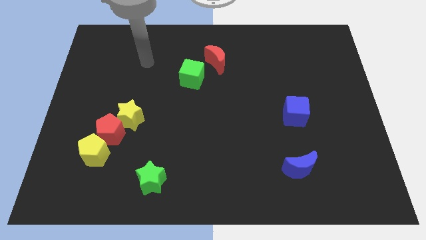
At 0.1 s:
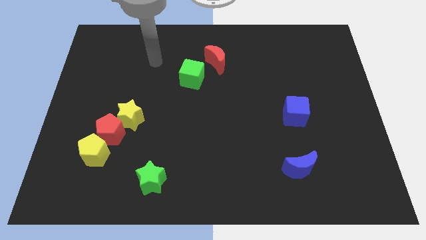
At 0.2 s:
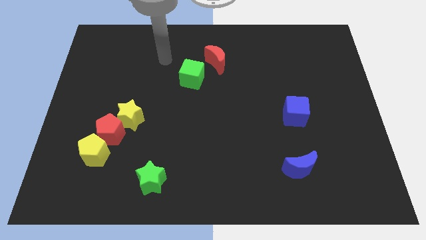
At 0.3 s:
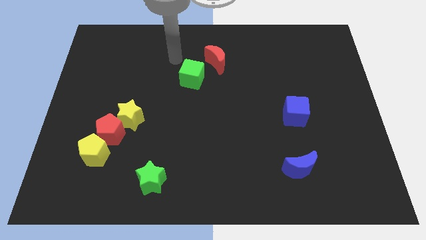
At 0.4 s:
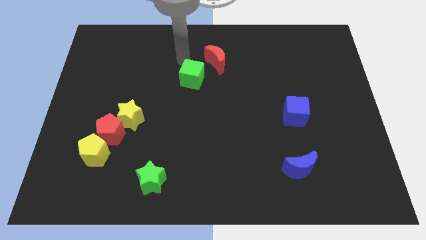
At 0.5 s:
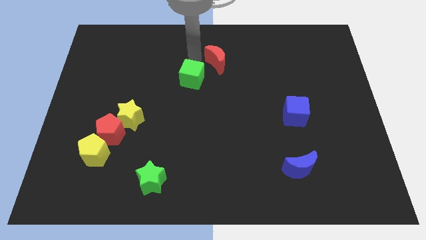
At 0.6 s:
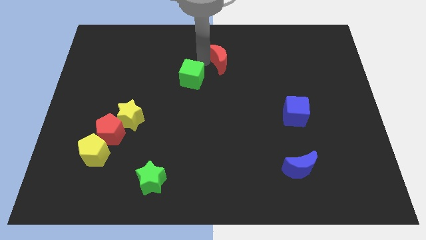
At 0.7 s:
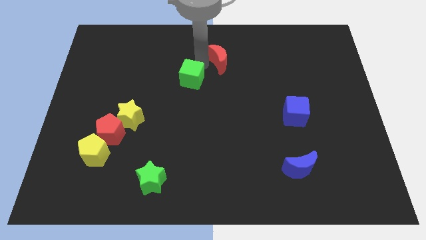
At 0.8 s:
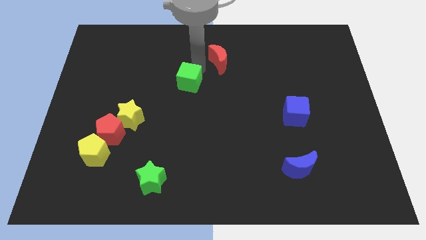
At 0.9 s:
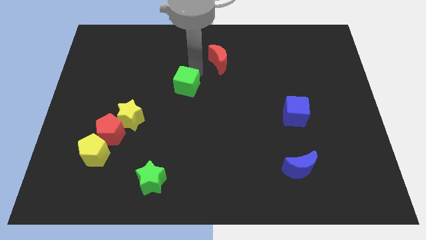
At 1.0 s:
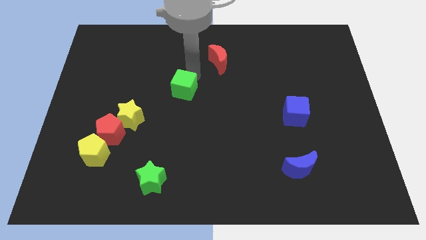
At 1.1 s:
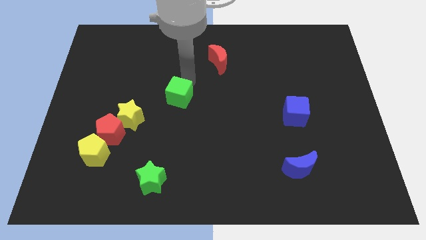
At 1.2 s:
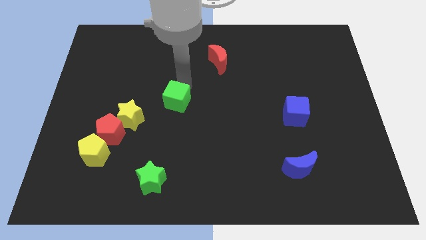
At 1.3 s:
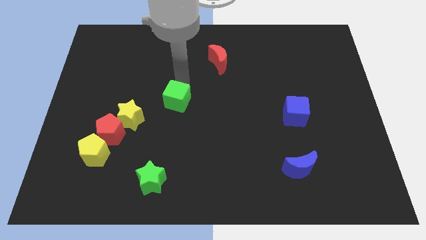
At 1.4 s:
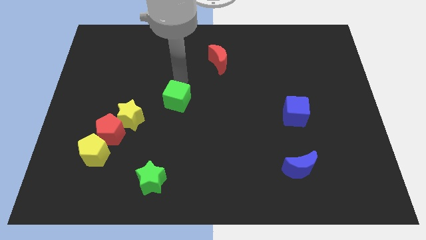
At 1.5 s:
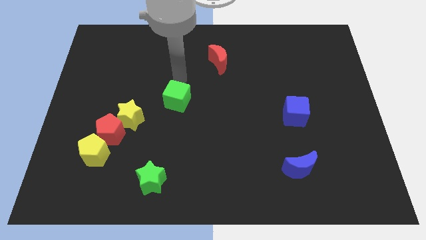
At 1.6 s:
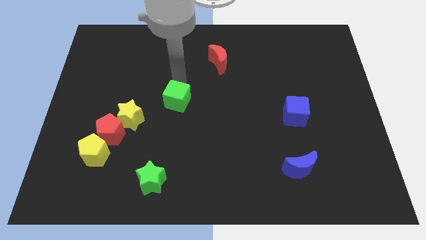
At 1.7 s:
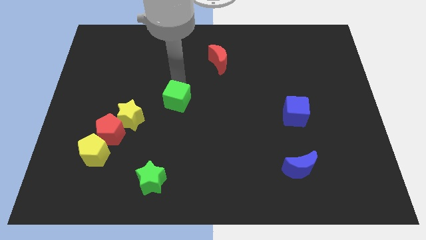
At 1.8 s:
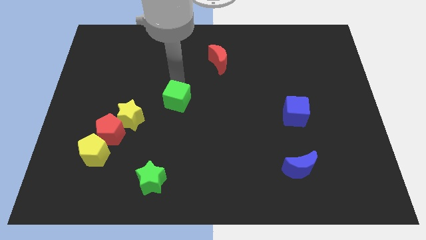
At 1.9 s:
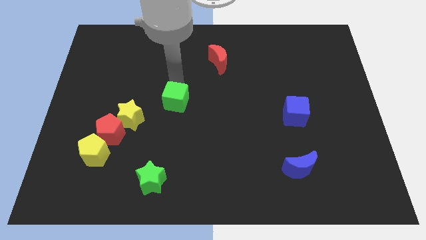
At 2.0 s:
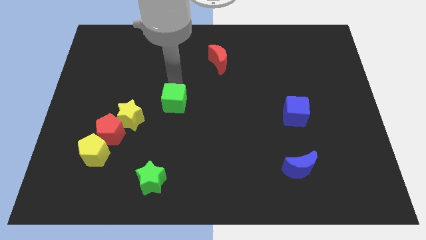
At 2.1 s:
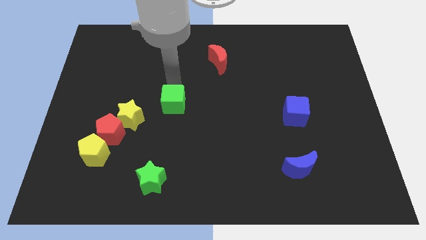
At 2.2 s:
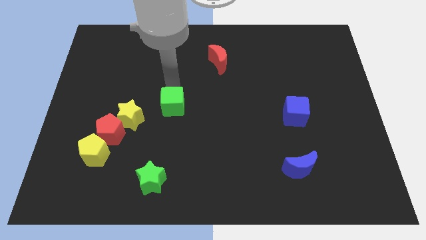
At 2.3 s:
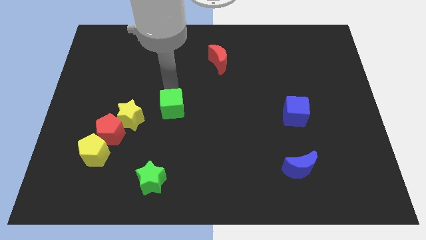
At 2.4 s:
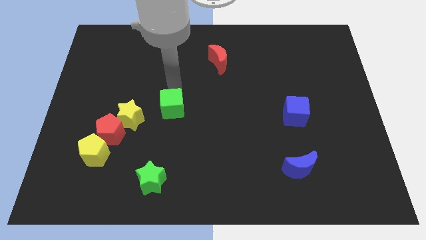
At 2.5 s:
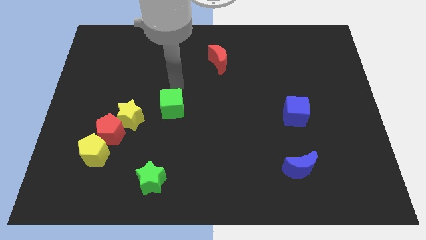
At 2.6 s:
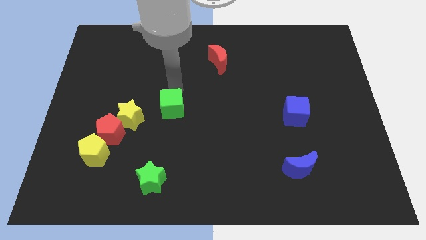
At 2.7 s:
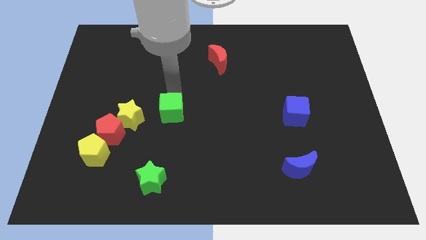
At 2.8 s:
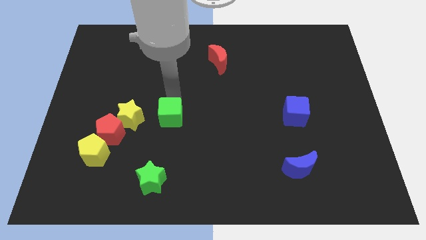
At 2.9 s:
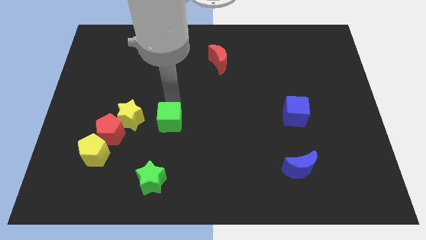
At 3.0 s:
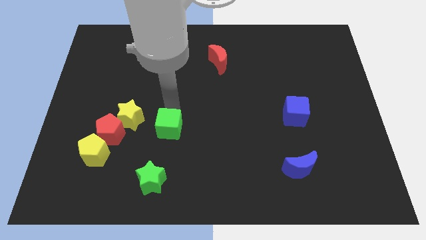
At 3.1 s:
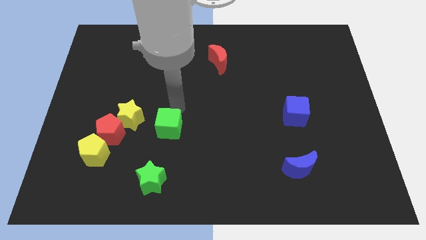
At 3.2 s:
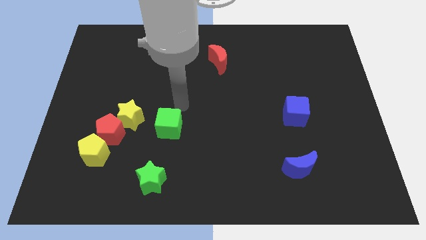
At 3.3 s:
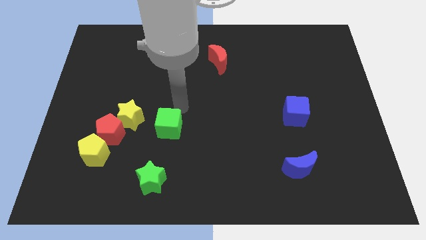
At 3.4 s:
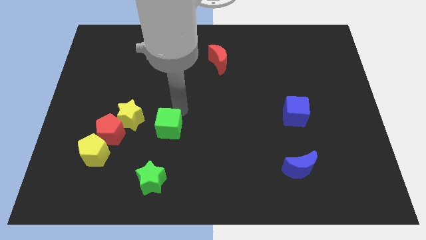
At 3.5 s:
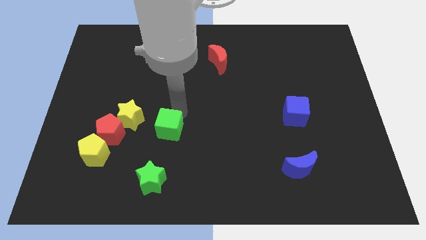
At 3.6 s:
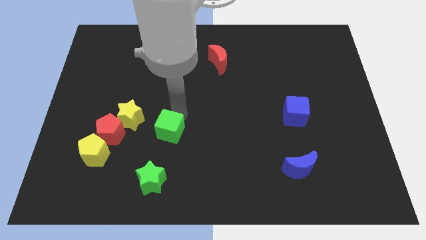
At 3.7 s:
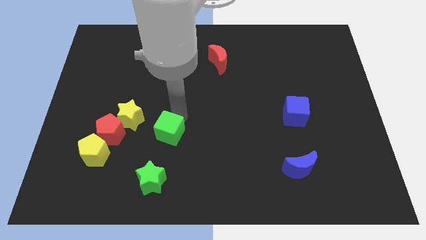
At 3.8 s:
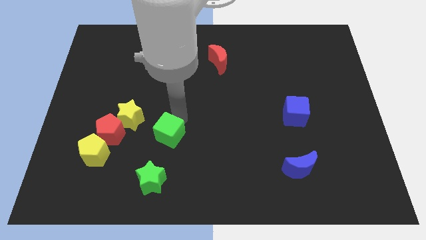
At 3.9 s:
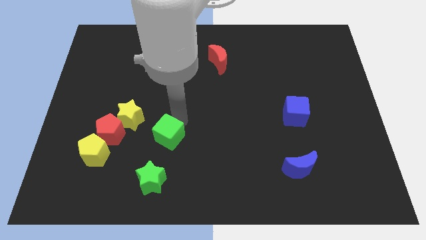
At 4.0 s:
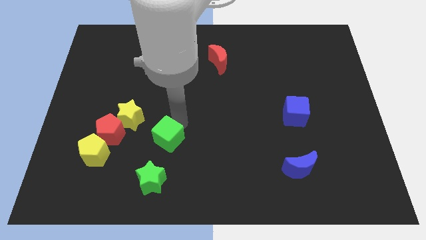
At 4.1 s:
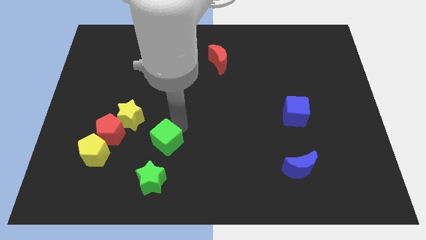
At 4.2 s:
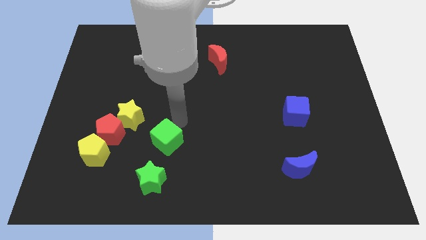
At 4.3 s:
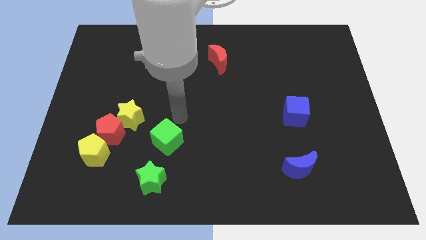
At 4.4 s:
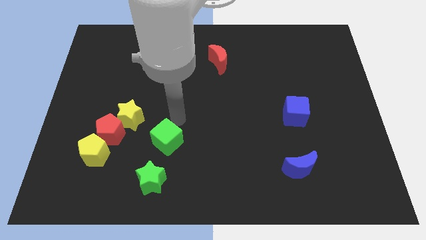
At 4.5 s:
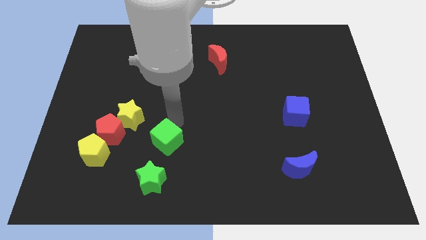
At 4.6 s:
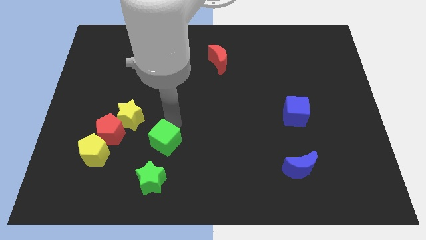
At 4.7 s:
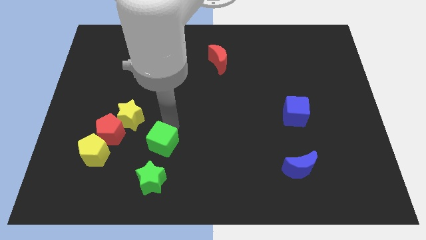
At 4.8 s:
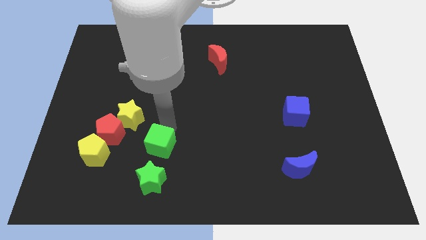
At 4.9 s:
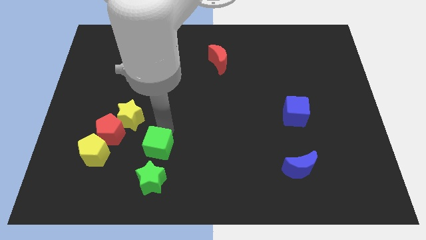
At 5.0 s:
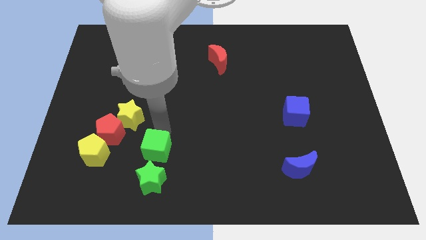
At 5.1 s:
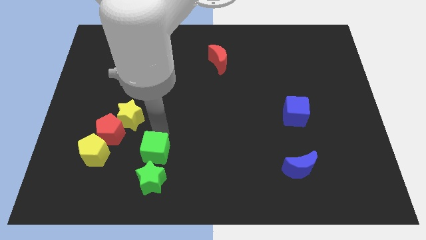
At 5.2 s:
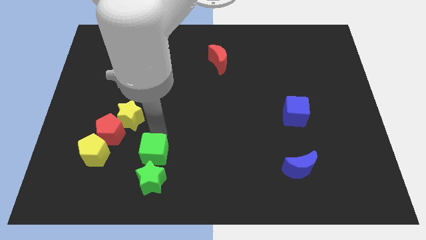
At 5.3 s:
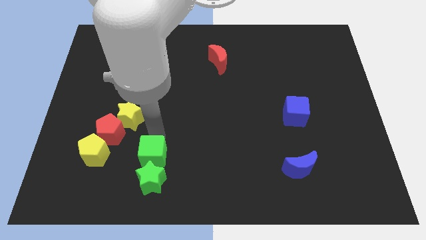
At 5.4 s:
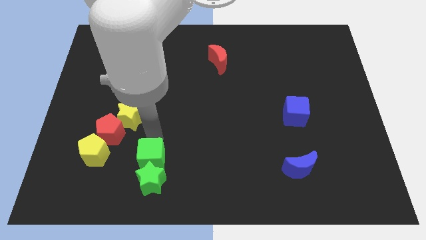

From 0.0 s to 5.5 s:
put the green cube towards the green star

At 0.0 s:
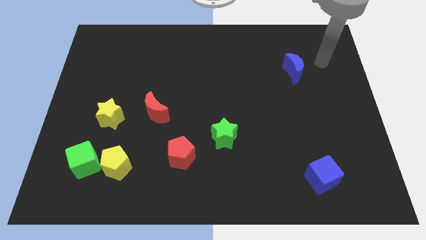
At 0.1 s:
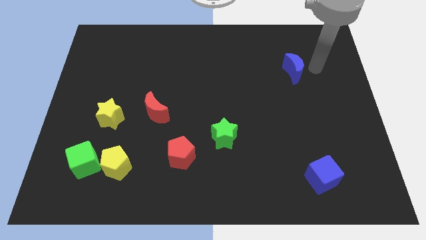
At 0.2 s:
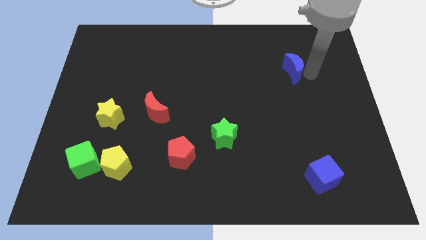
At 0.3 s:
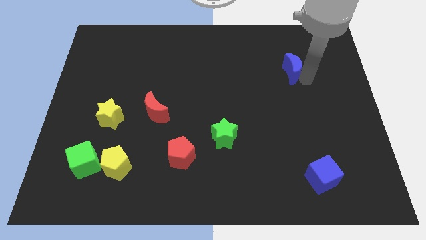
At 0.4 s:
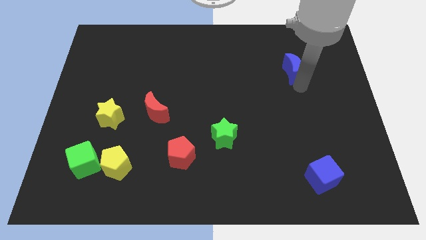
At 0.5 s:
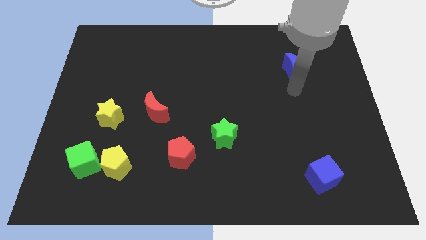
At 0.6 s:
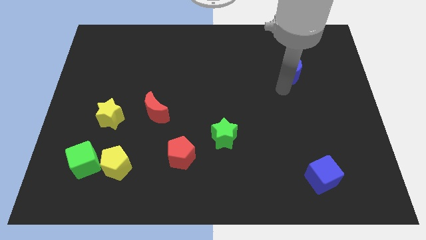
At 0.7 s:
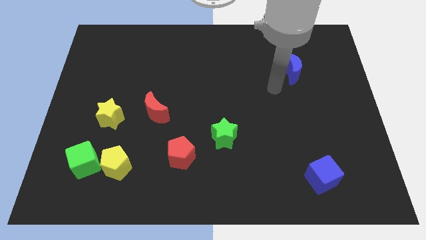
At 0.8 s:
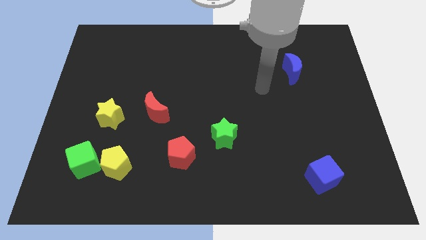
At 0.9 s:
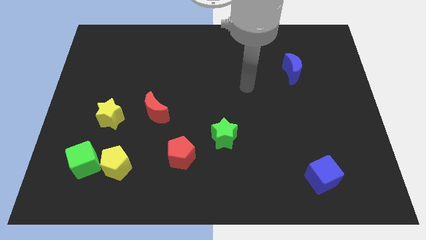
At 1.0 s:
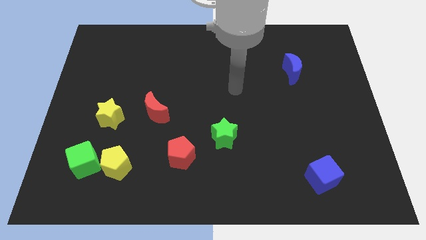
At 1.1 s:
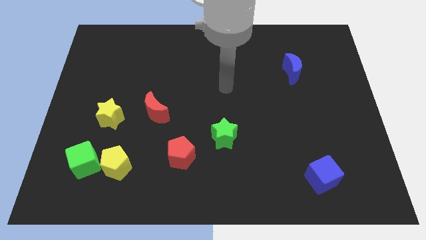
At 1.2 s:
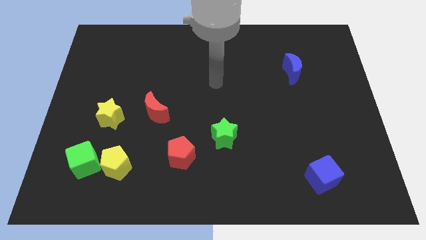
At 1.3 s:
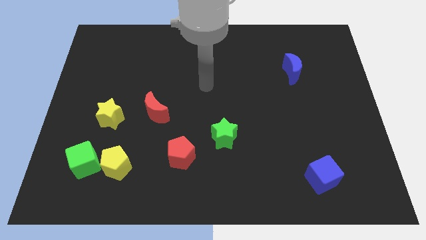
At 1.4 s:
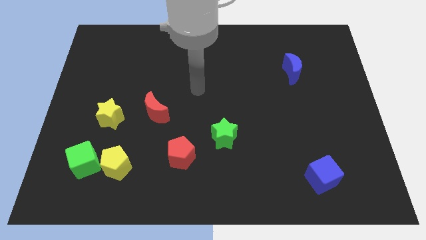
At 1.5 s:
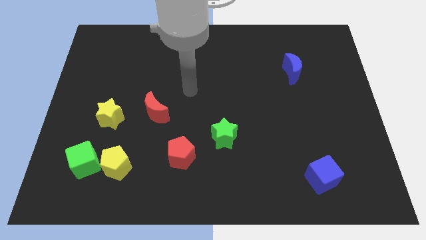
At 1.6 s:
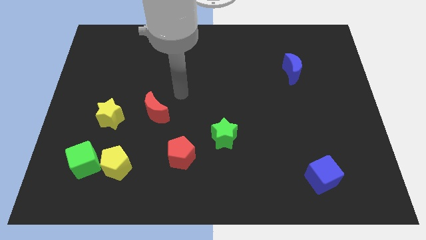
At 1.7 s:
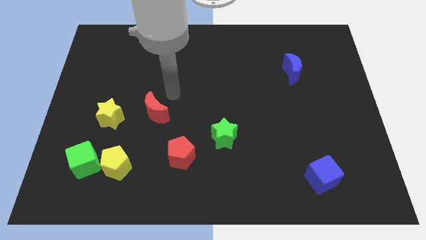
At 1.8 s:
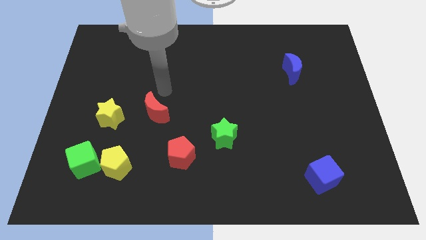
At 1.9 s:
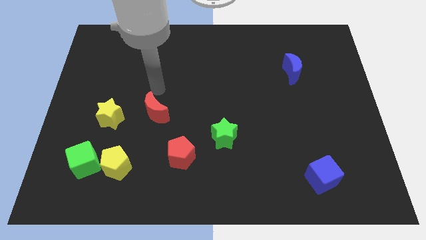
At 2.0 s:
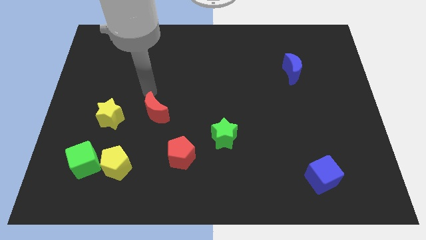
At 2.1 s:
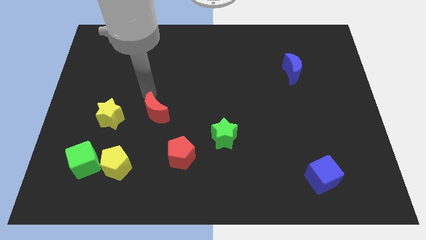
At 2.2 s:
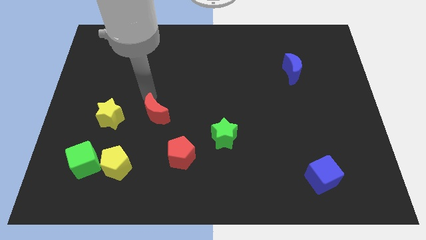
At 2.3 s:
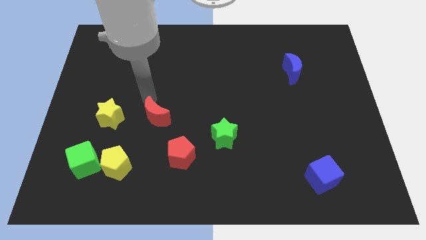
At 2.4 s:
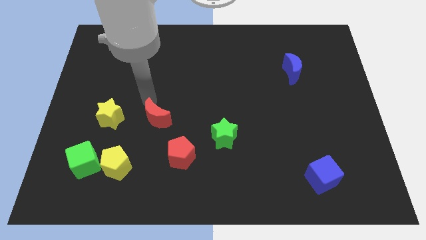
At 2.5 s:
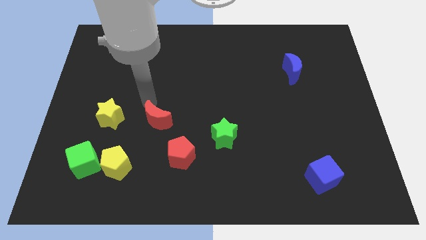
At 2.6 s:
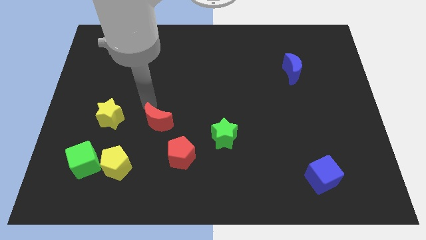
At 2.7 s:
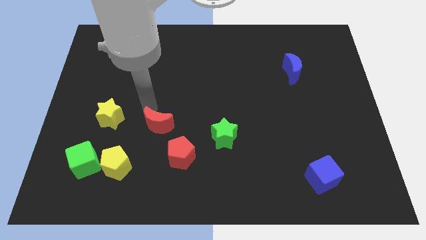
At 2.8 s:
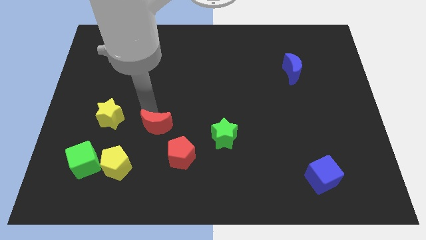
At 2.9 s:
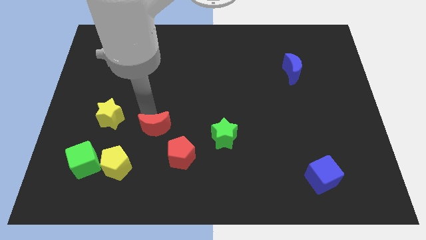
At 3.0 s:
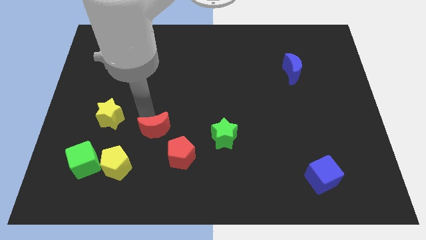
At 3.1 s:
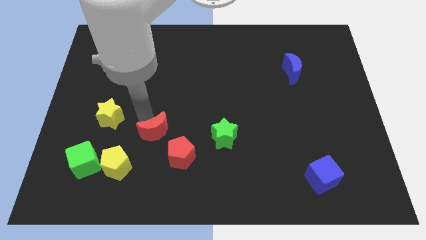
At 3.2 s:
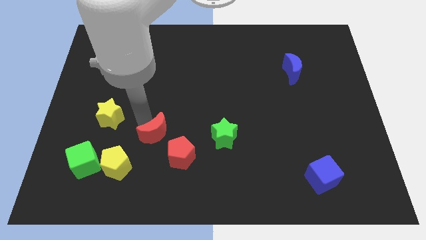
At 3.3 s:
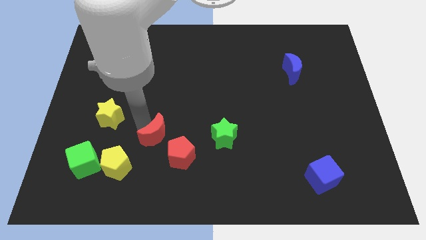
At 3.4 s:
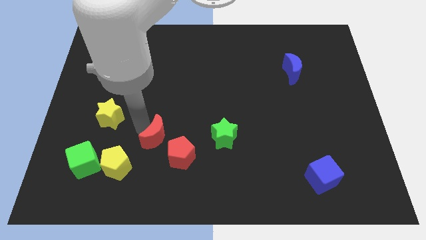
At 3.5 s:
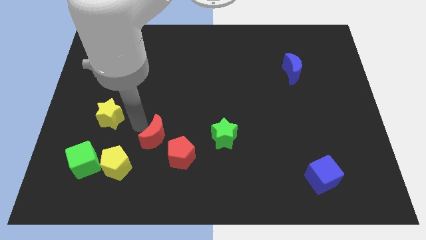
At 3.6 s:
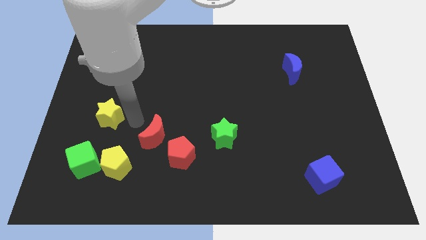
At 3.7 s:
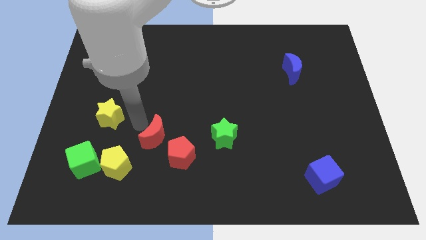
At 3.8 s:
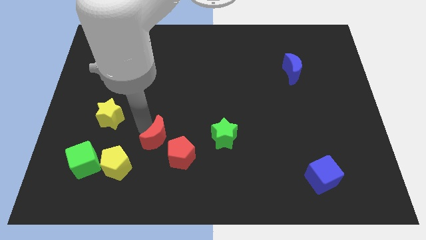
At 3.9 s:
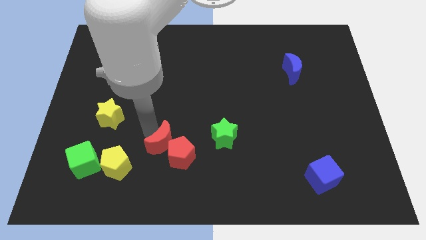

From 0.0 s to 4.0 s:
push the red moon to the red pentagon
